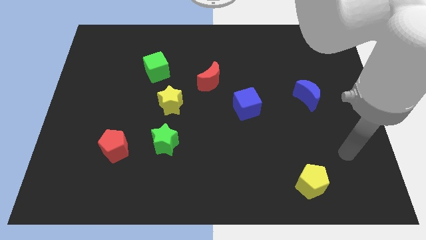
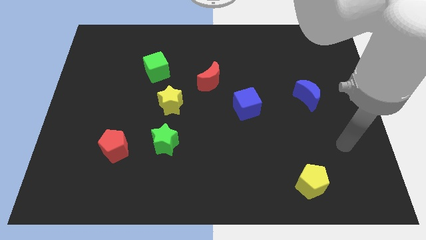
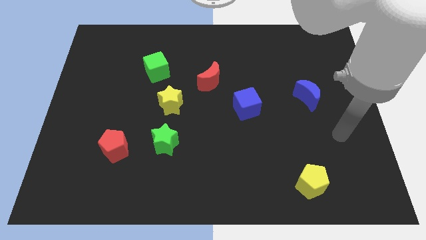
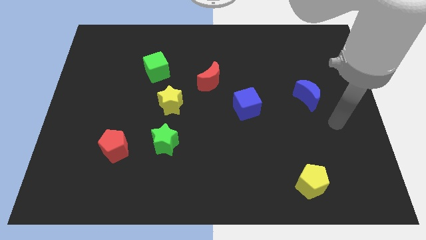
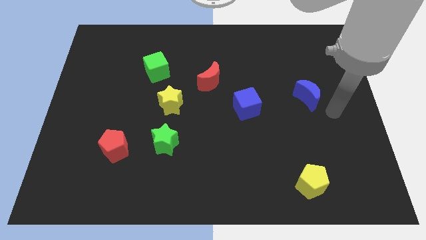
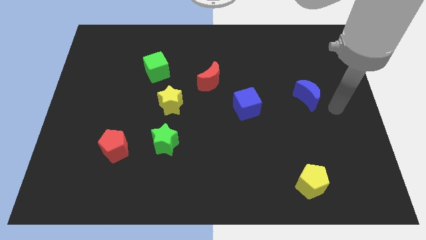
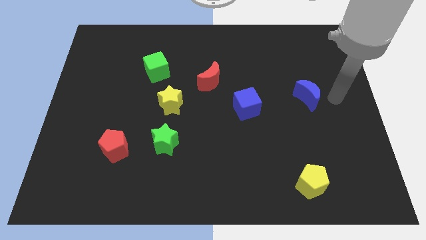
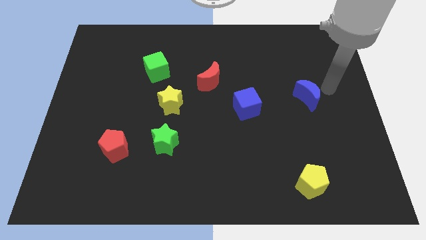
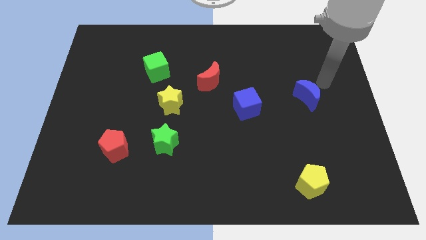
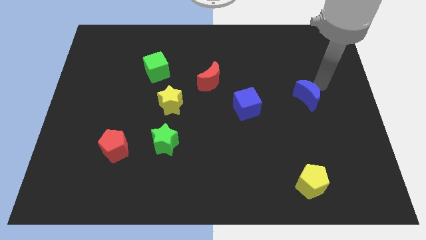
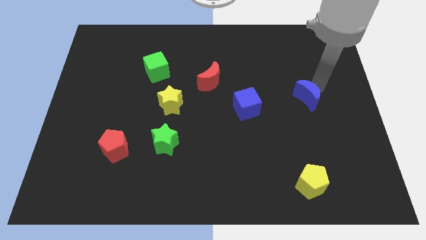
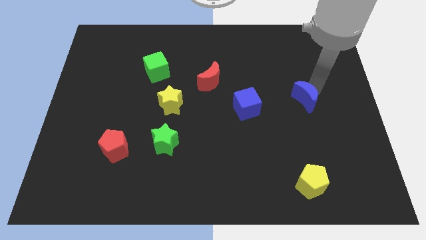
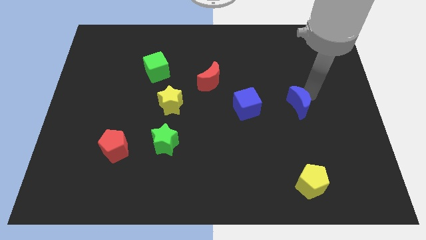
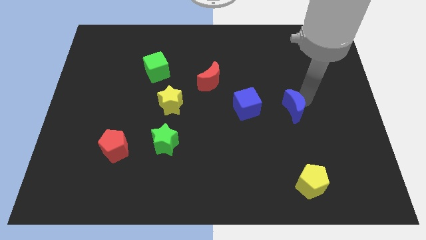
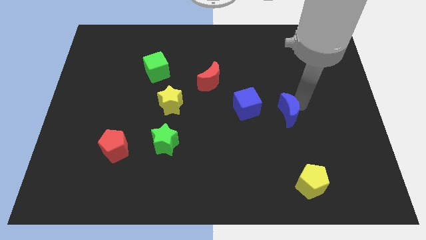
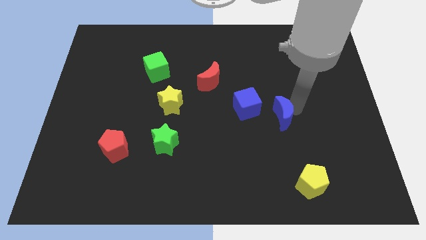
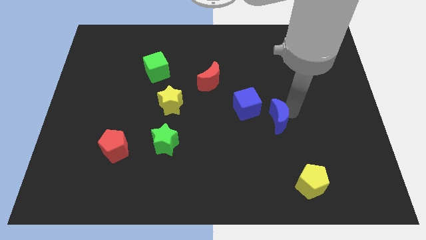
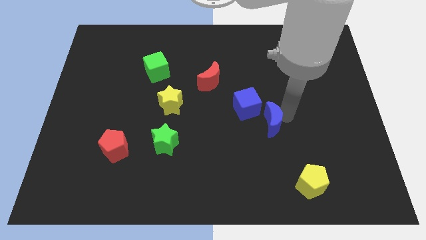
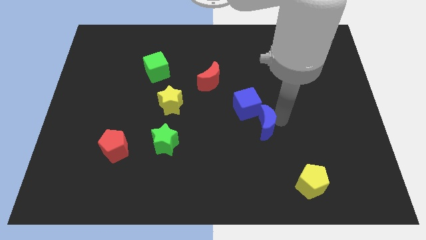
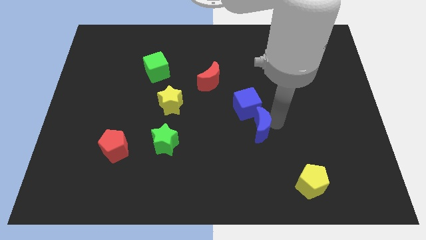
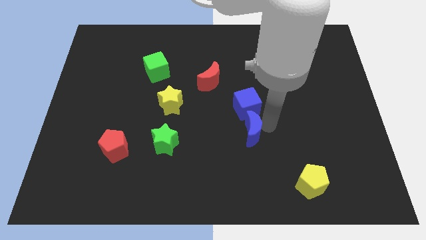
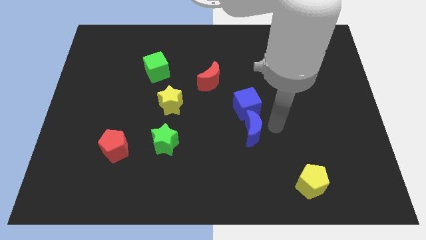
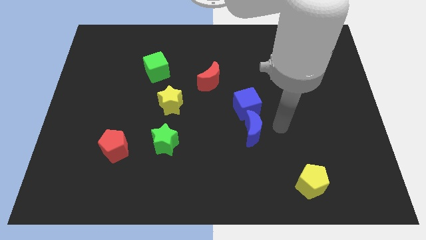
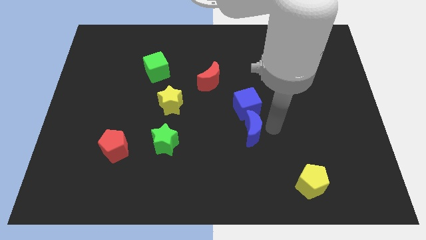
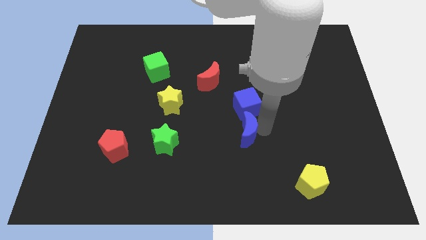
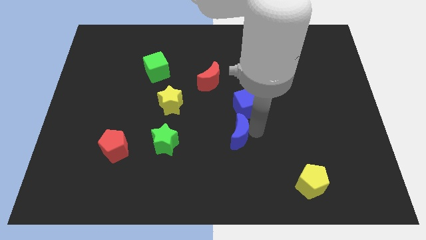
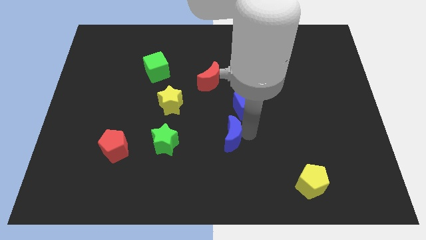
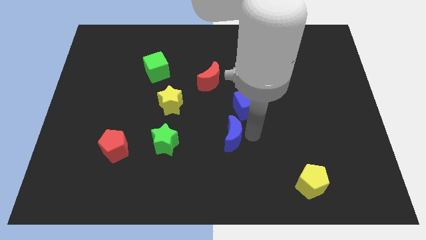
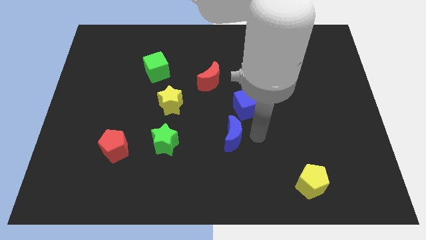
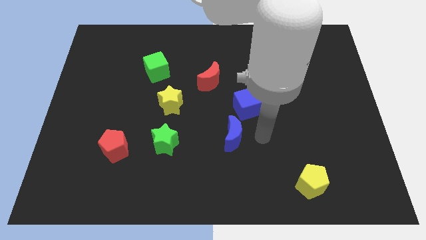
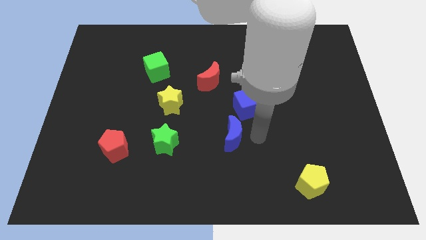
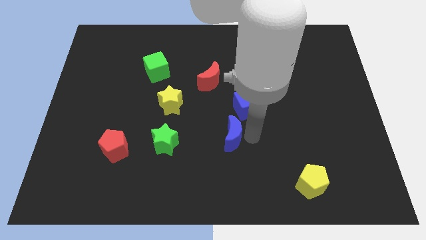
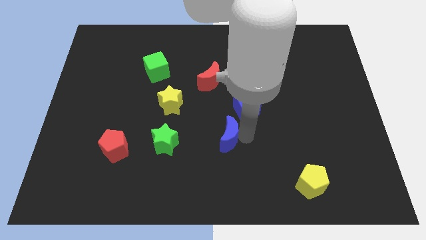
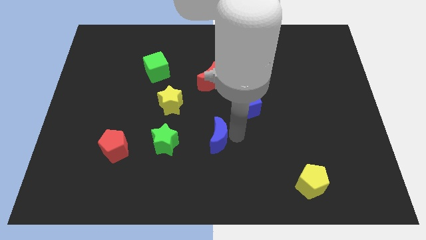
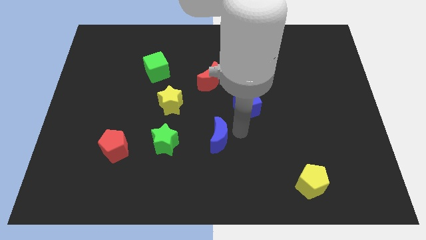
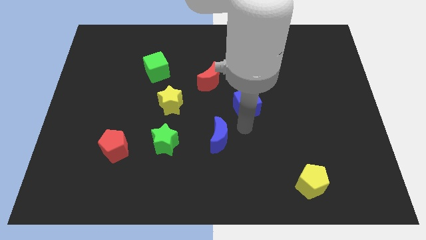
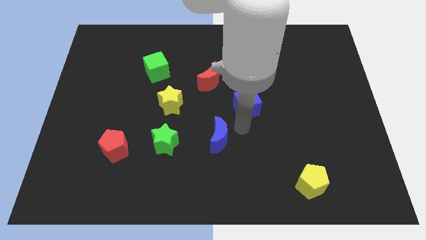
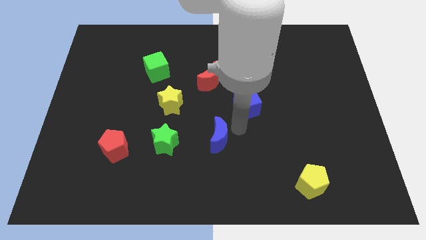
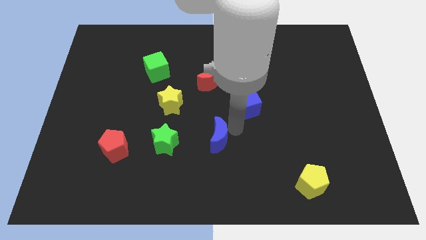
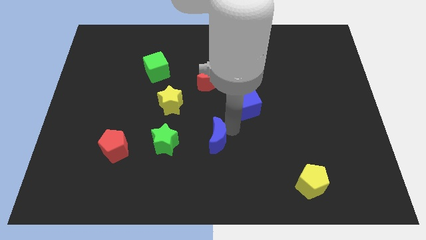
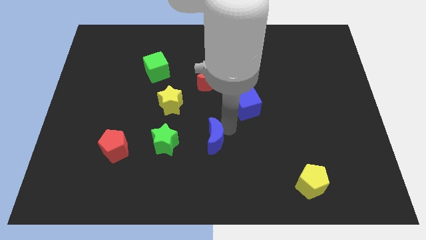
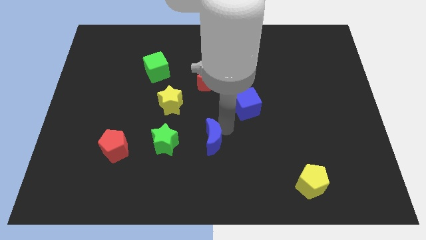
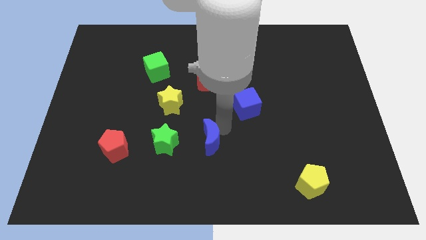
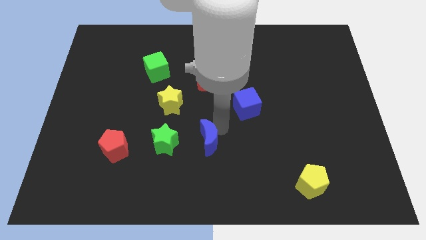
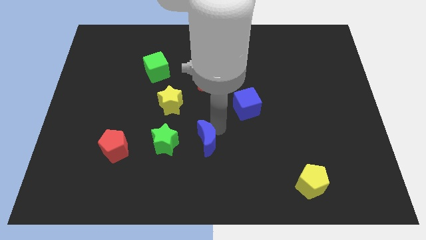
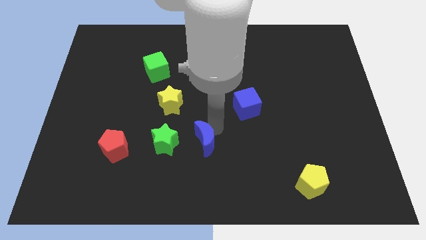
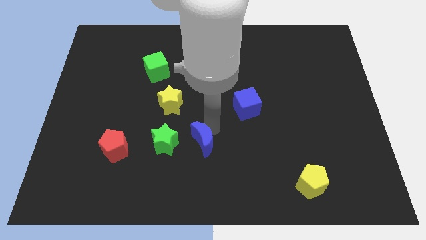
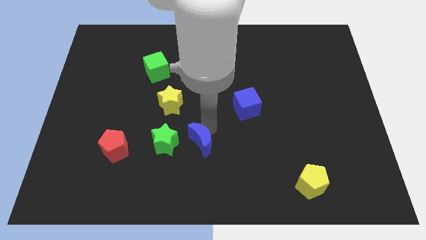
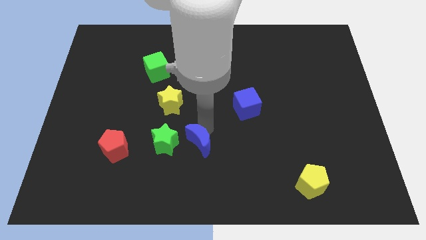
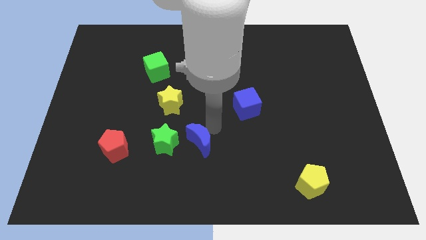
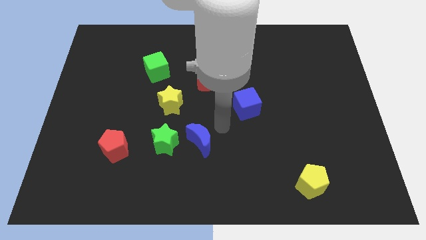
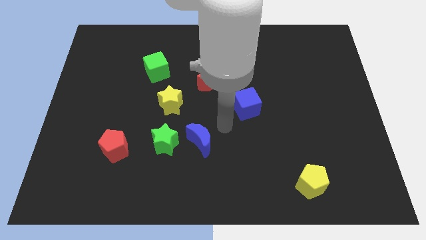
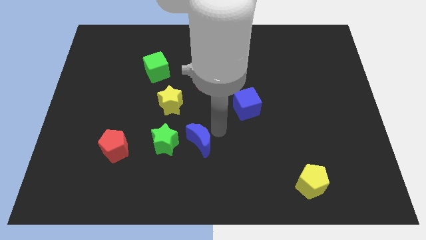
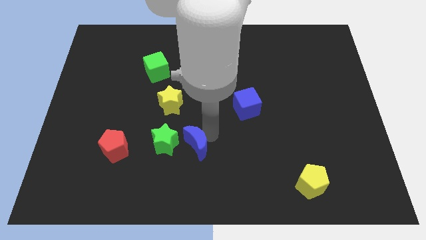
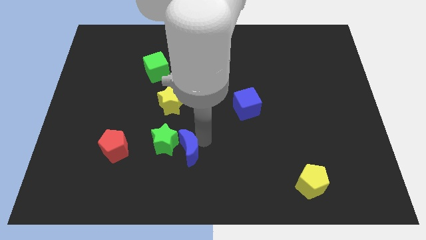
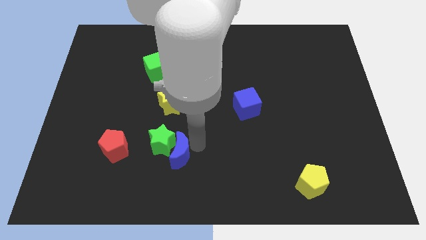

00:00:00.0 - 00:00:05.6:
slide the blue moon below the yellow star
